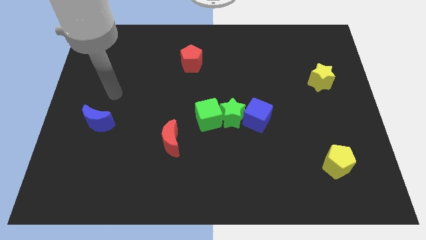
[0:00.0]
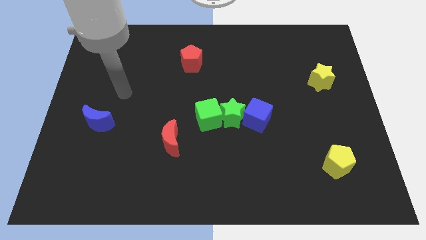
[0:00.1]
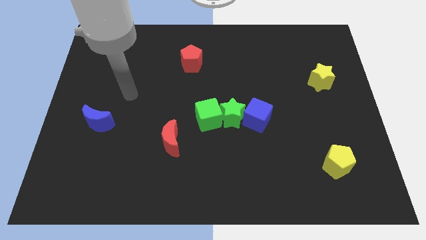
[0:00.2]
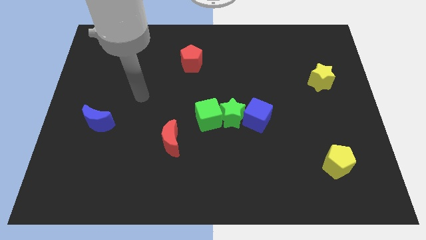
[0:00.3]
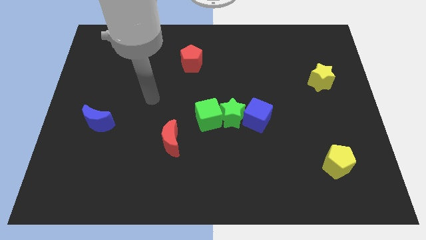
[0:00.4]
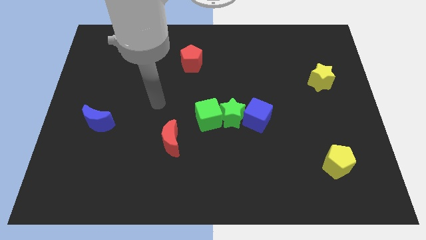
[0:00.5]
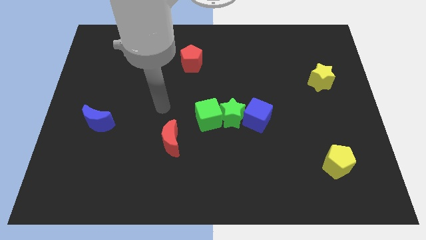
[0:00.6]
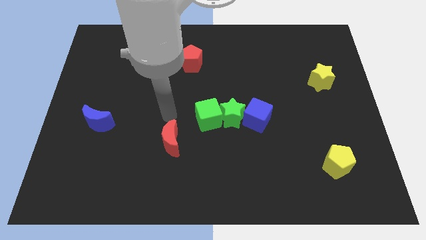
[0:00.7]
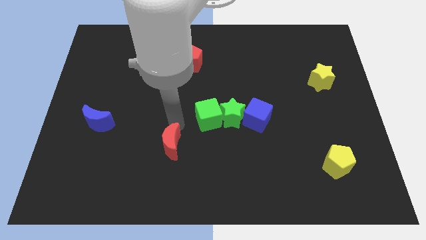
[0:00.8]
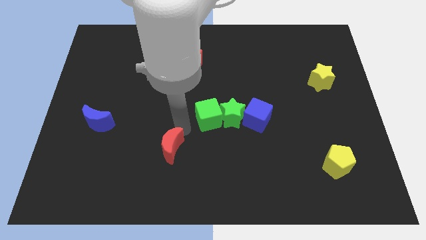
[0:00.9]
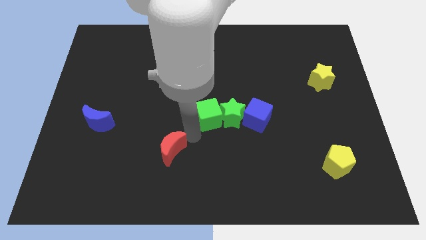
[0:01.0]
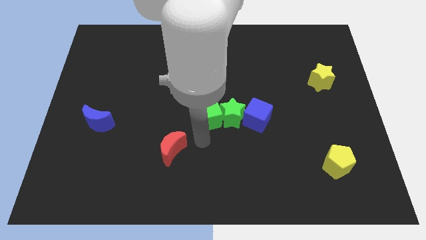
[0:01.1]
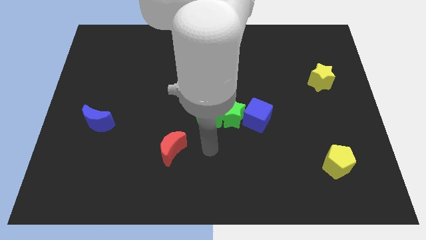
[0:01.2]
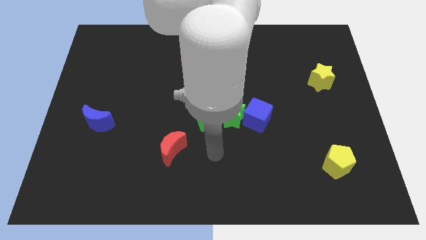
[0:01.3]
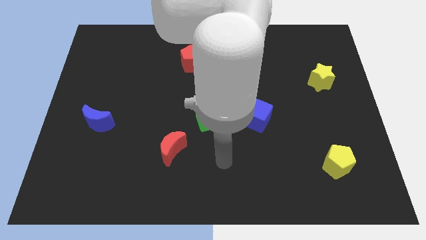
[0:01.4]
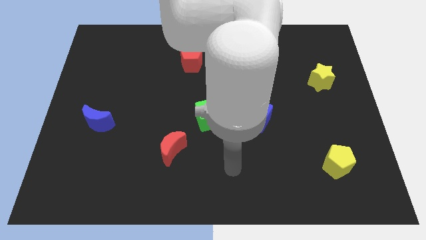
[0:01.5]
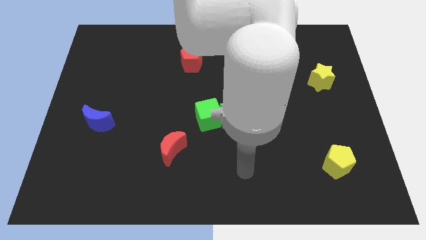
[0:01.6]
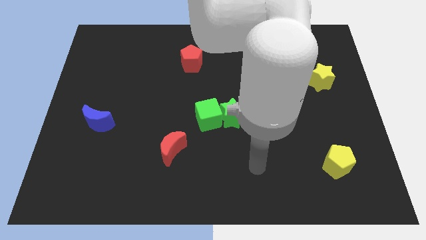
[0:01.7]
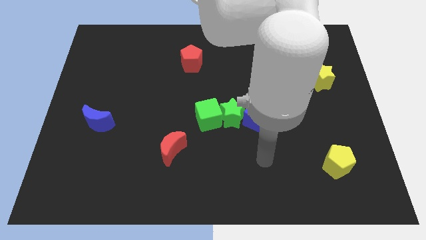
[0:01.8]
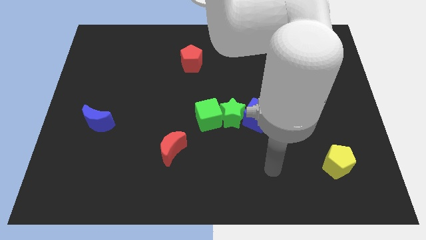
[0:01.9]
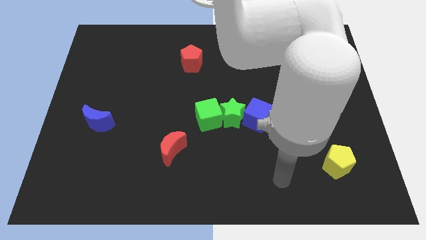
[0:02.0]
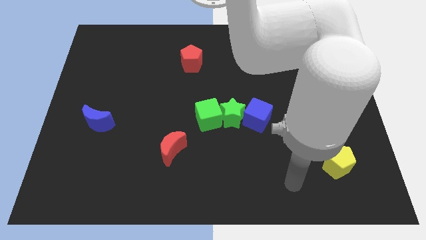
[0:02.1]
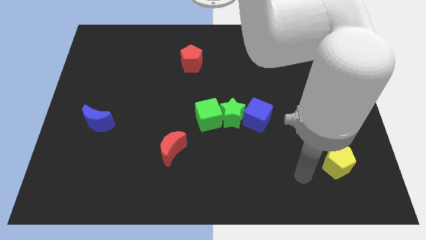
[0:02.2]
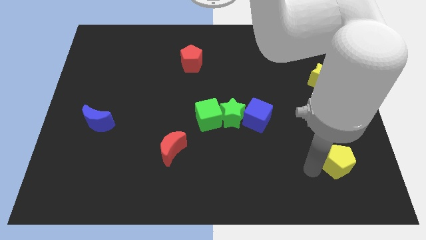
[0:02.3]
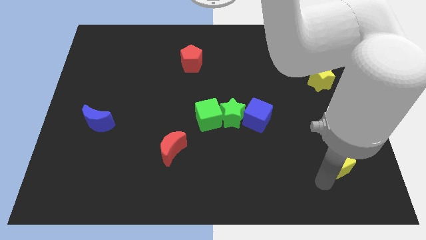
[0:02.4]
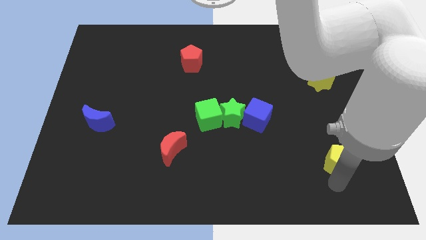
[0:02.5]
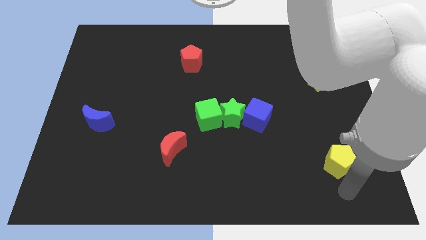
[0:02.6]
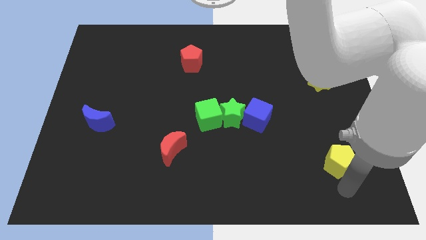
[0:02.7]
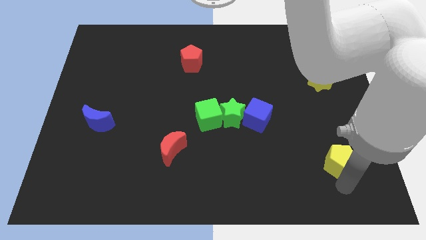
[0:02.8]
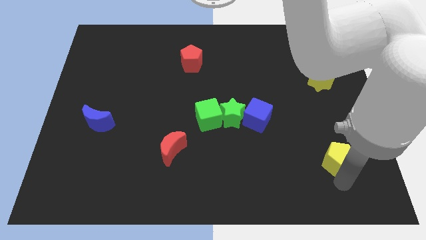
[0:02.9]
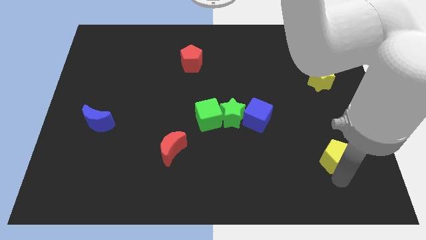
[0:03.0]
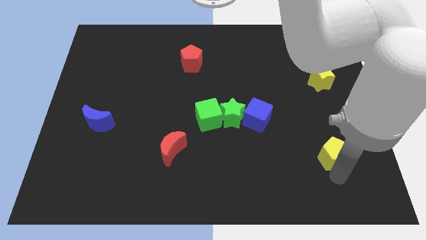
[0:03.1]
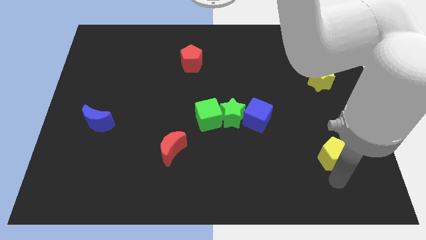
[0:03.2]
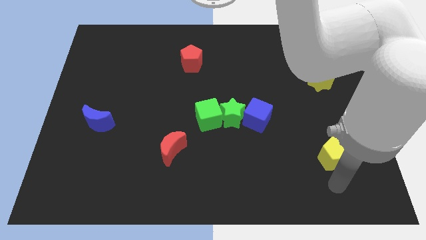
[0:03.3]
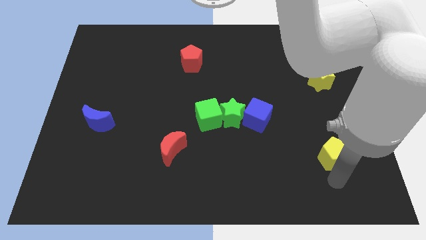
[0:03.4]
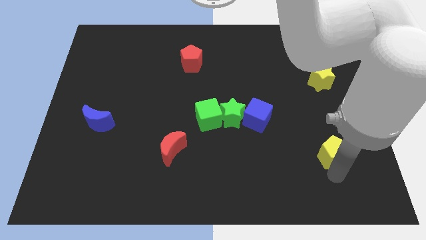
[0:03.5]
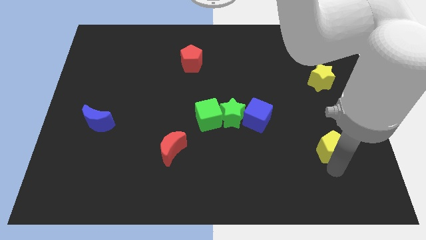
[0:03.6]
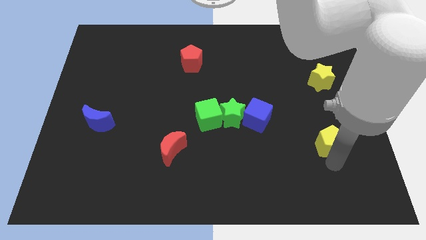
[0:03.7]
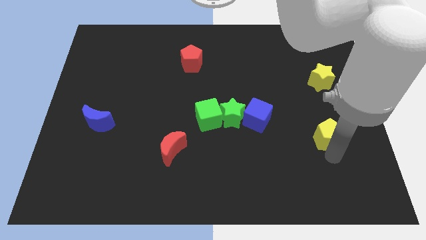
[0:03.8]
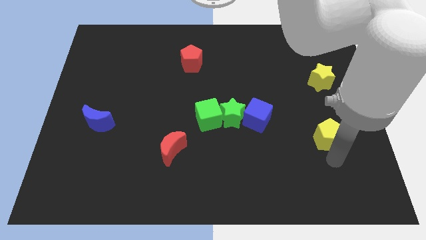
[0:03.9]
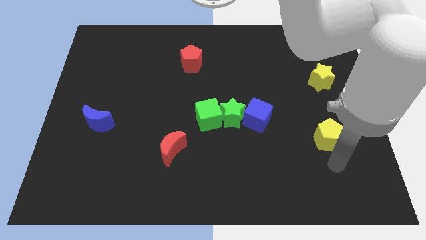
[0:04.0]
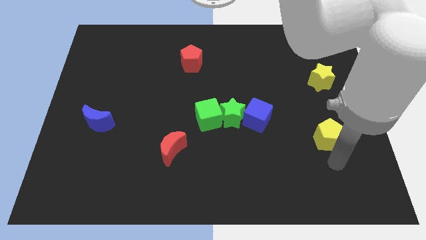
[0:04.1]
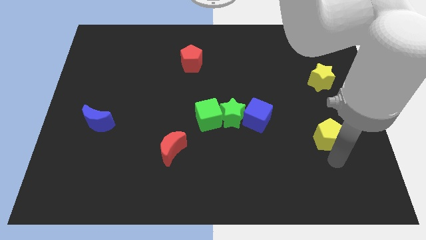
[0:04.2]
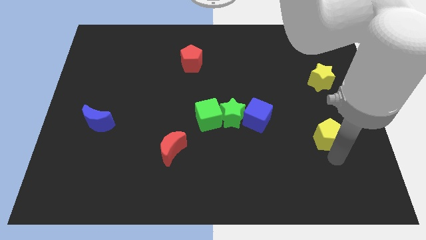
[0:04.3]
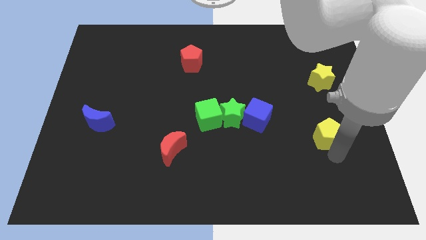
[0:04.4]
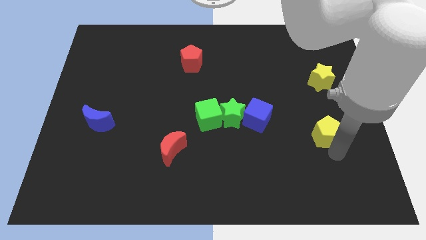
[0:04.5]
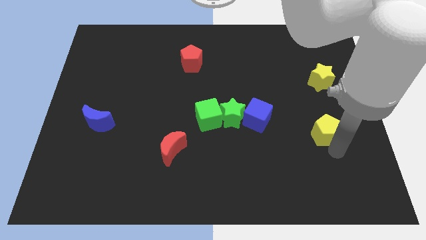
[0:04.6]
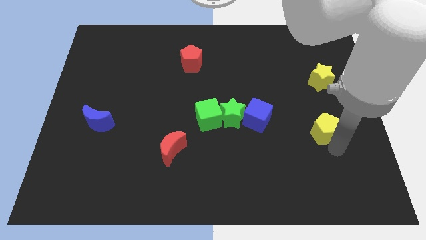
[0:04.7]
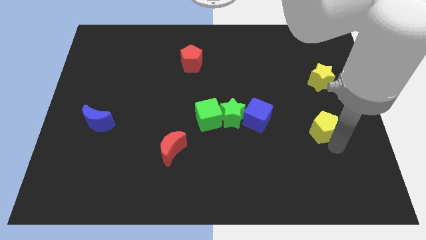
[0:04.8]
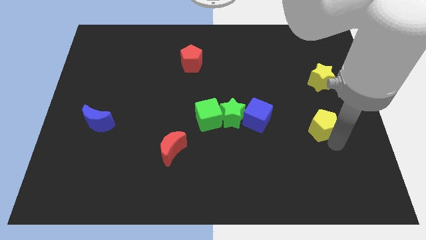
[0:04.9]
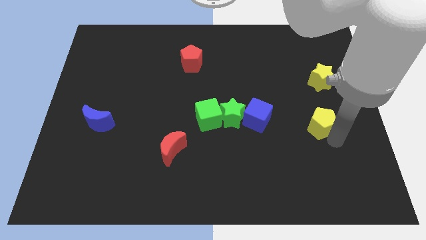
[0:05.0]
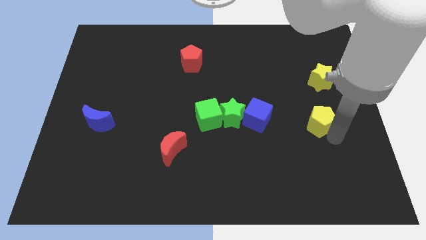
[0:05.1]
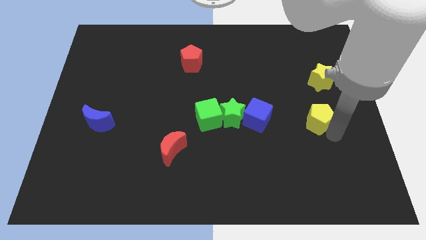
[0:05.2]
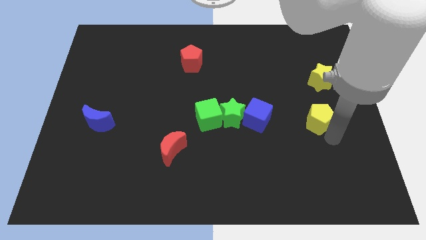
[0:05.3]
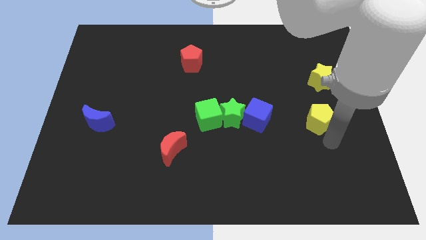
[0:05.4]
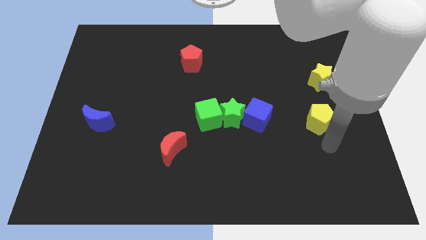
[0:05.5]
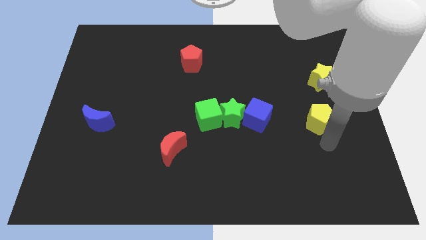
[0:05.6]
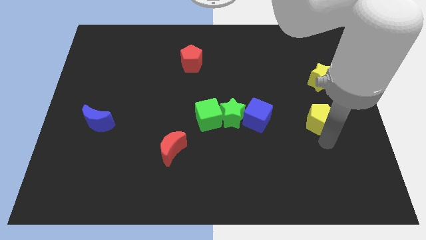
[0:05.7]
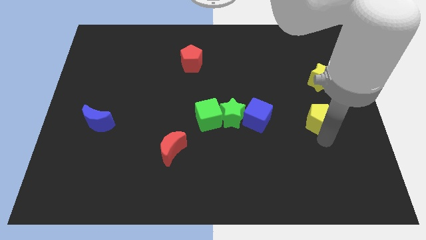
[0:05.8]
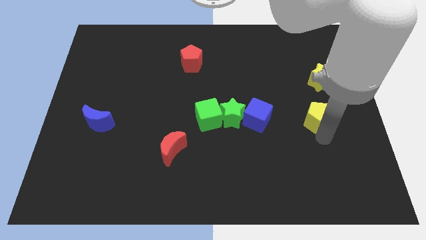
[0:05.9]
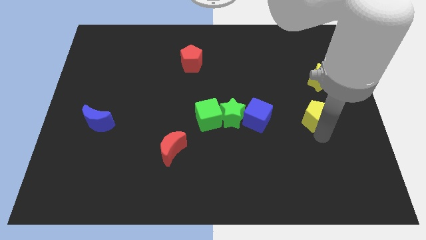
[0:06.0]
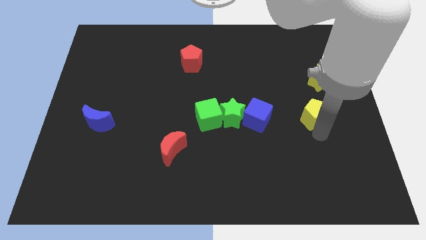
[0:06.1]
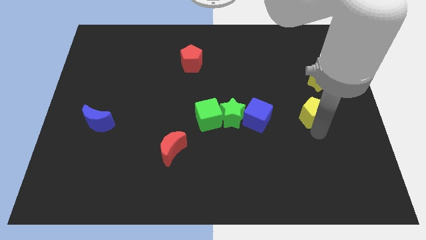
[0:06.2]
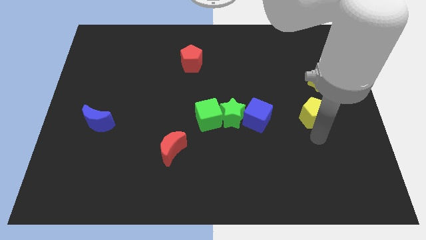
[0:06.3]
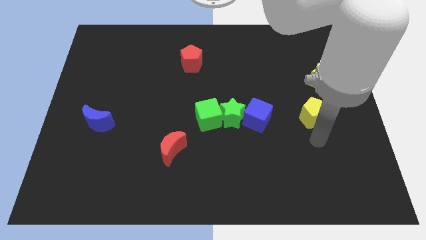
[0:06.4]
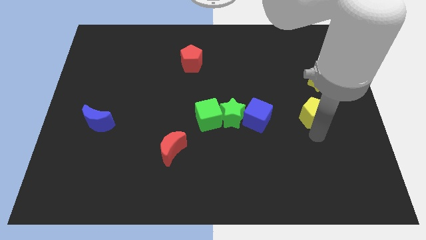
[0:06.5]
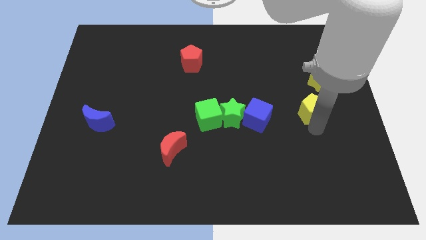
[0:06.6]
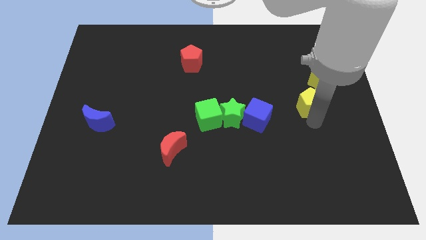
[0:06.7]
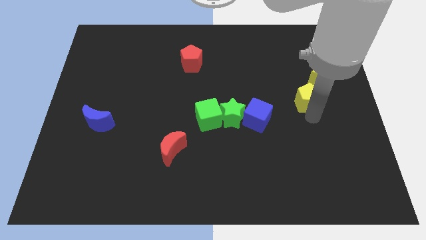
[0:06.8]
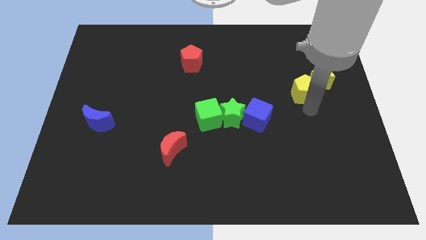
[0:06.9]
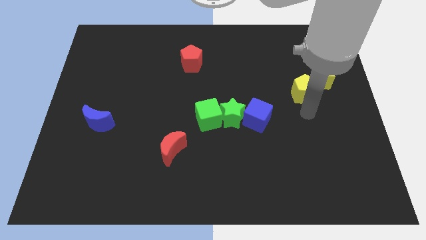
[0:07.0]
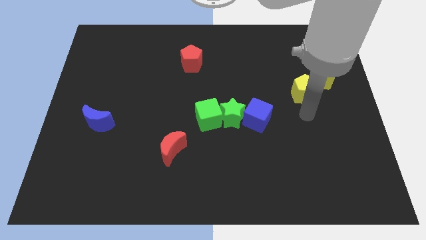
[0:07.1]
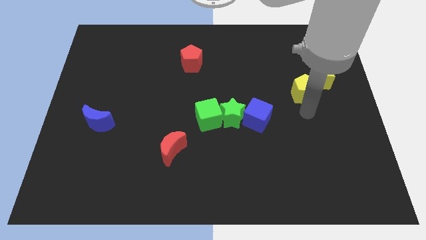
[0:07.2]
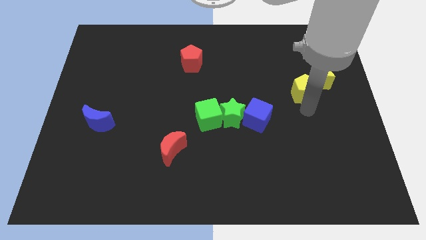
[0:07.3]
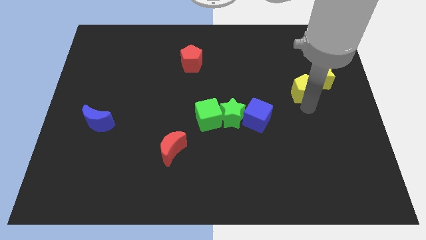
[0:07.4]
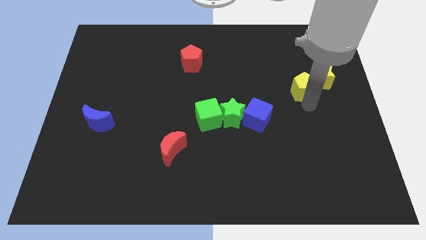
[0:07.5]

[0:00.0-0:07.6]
slide the yellow pentagon upwards

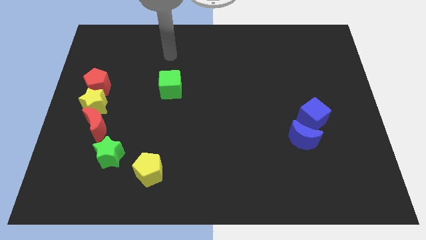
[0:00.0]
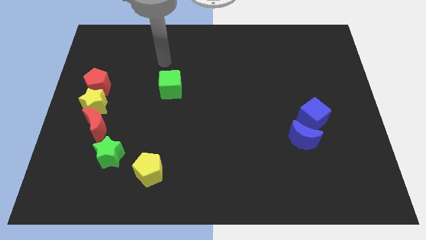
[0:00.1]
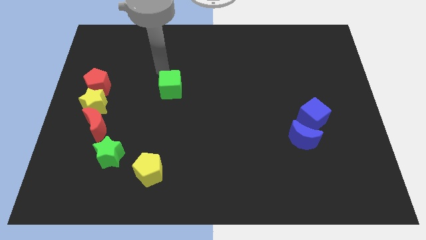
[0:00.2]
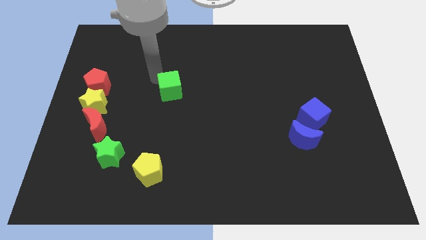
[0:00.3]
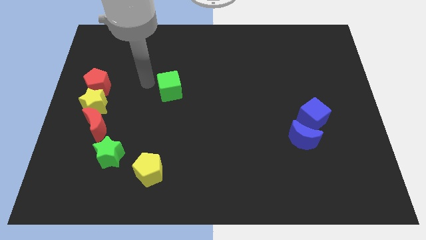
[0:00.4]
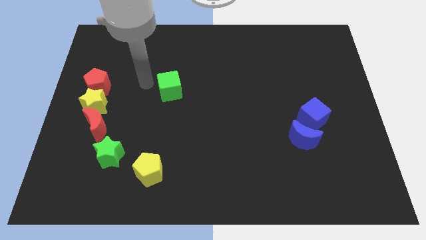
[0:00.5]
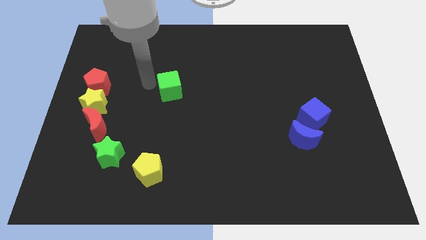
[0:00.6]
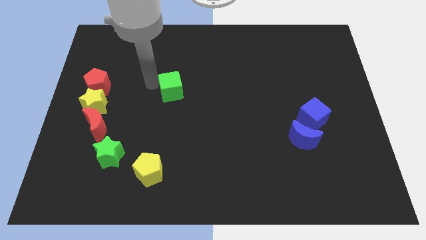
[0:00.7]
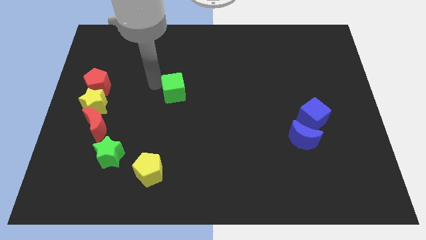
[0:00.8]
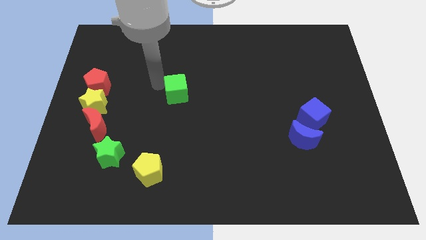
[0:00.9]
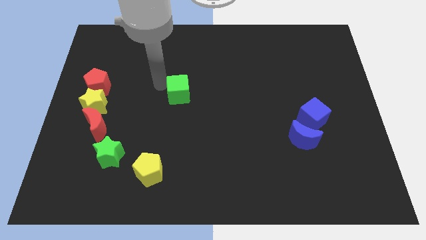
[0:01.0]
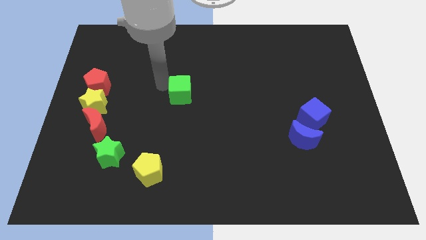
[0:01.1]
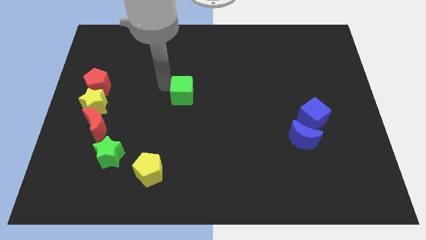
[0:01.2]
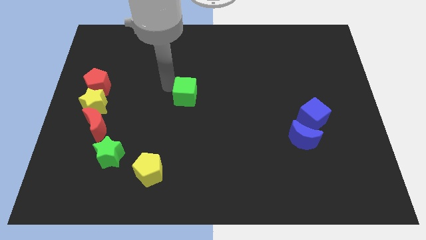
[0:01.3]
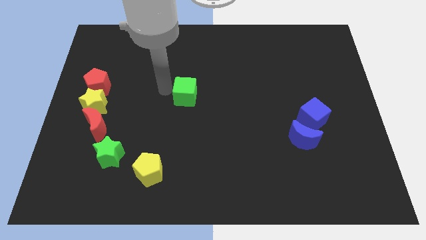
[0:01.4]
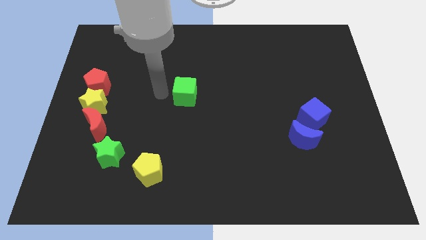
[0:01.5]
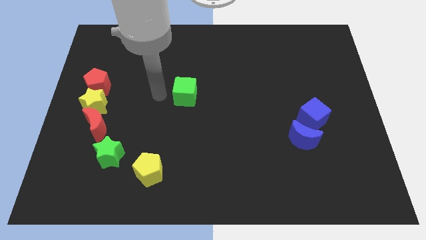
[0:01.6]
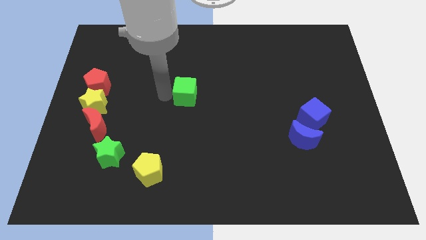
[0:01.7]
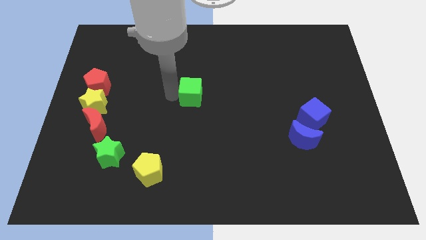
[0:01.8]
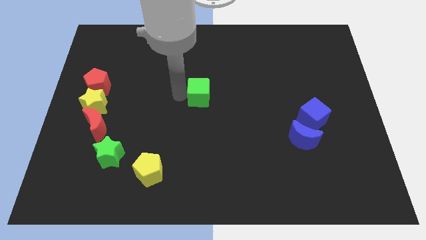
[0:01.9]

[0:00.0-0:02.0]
move the green cube to the right a little
